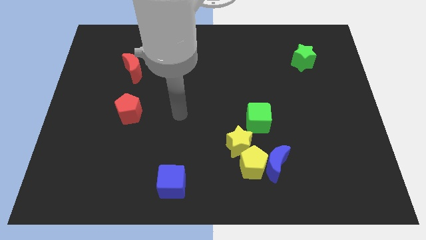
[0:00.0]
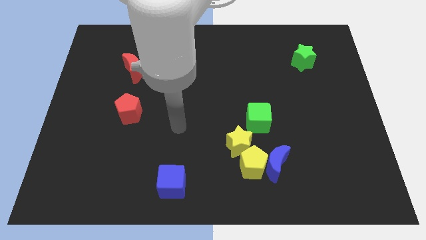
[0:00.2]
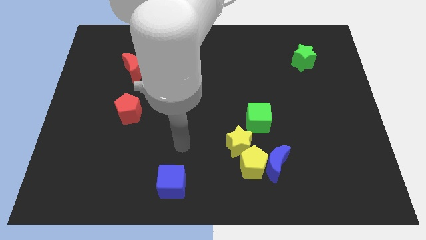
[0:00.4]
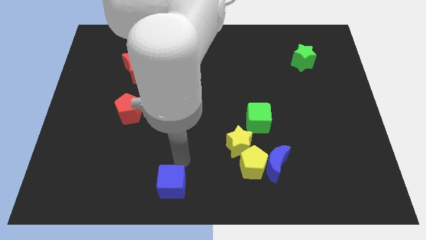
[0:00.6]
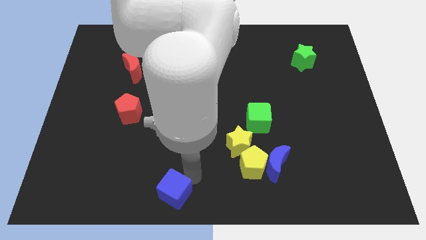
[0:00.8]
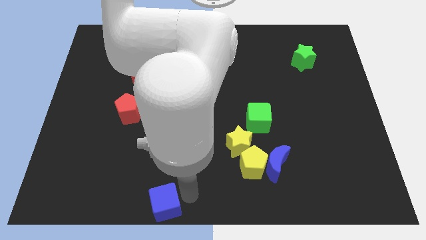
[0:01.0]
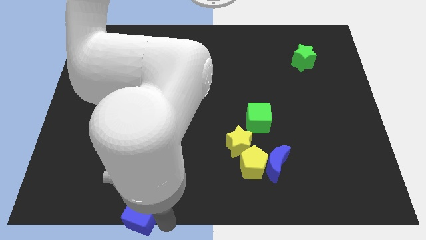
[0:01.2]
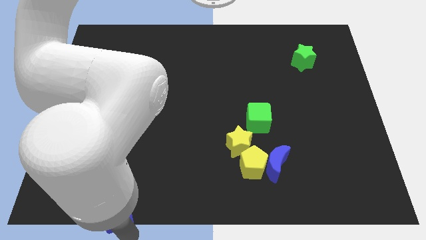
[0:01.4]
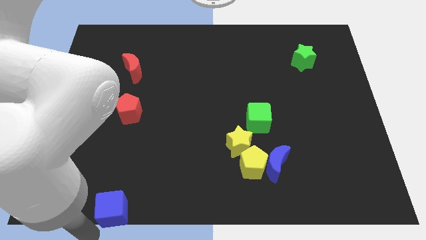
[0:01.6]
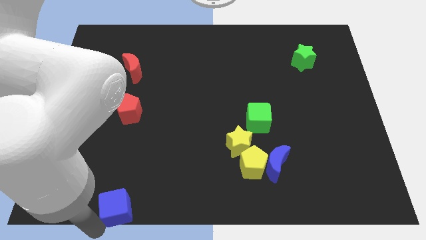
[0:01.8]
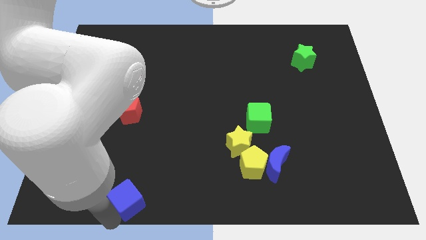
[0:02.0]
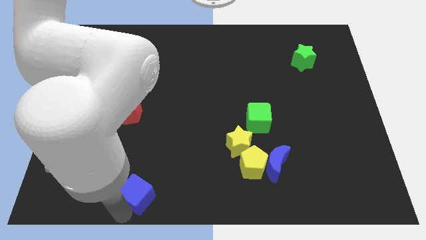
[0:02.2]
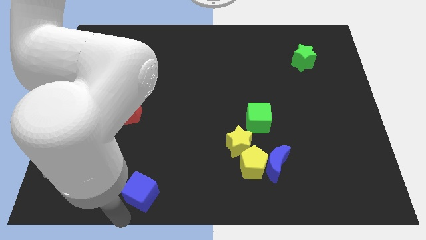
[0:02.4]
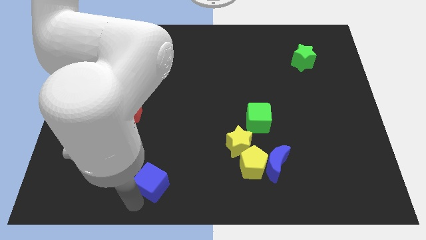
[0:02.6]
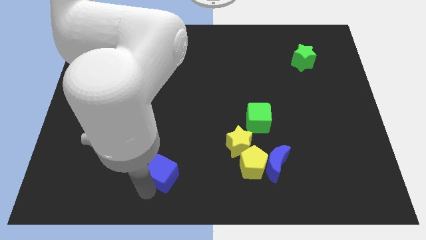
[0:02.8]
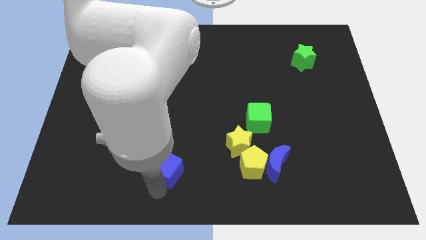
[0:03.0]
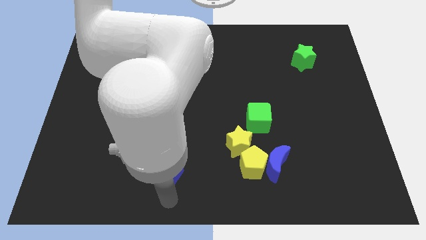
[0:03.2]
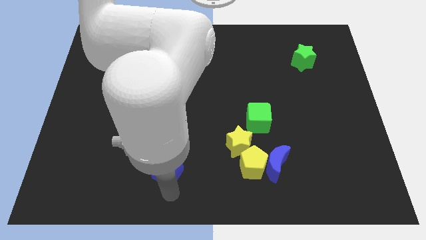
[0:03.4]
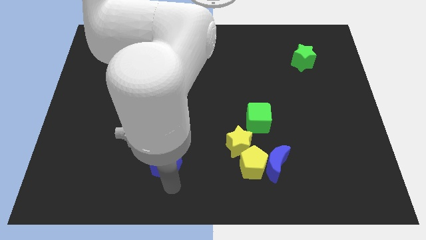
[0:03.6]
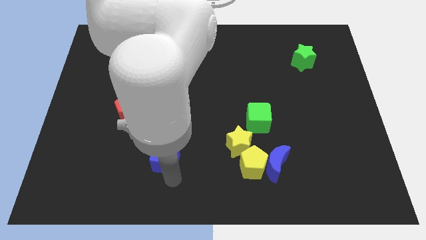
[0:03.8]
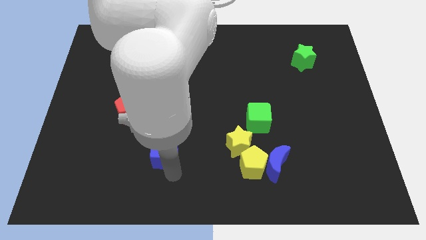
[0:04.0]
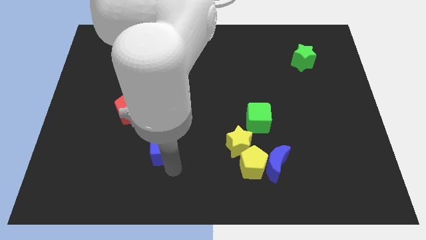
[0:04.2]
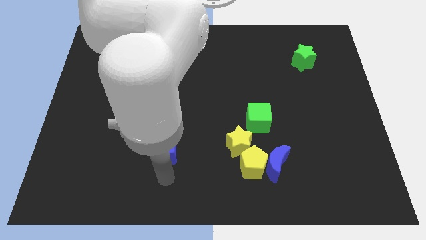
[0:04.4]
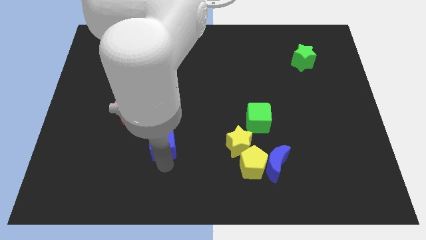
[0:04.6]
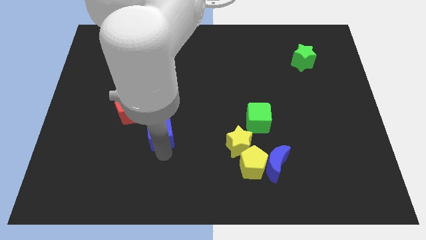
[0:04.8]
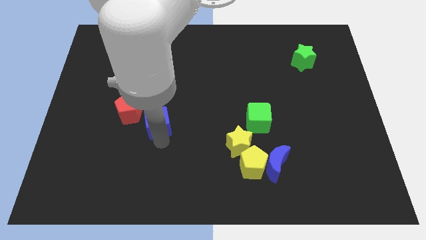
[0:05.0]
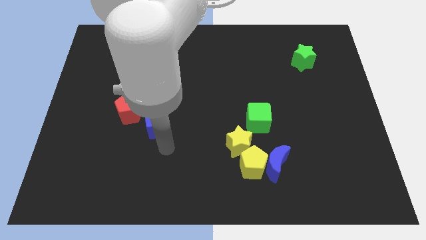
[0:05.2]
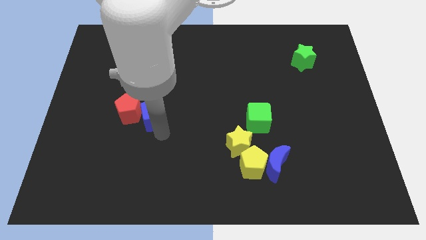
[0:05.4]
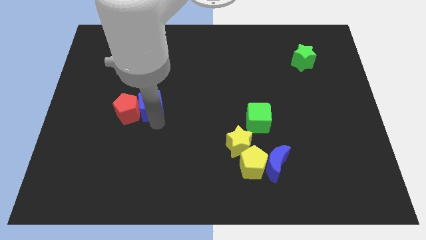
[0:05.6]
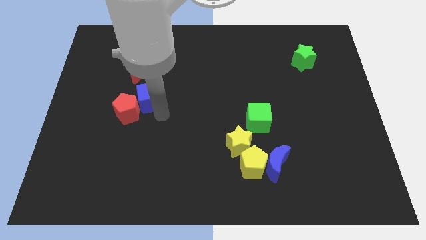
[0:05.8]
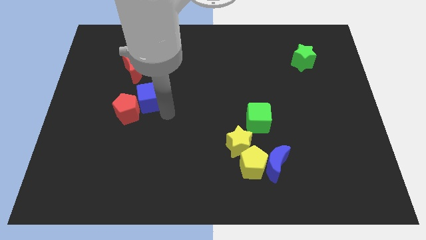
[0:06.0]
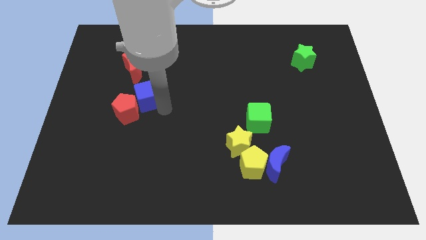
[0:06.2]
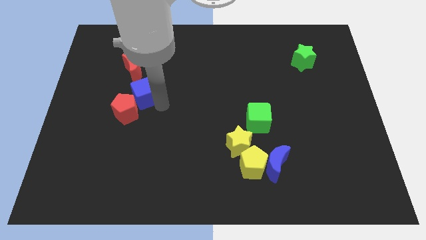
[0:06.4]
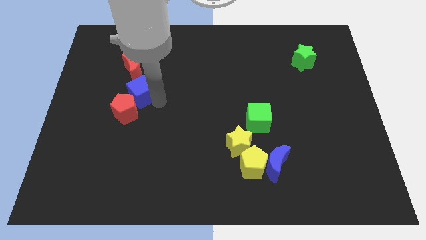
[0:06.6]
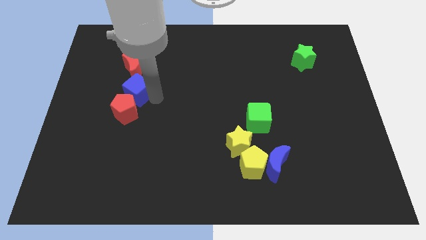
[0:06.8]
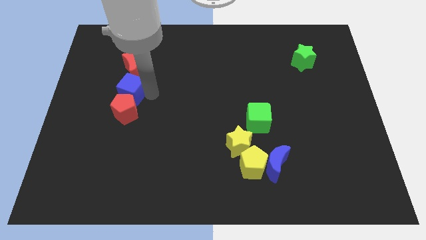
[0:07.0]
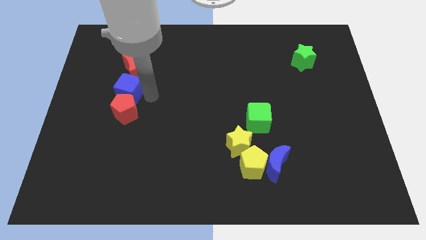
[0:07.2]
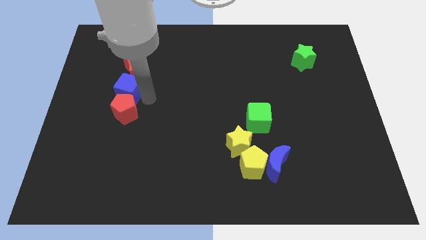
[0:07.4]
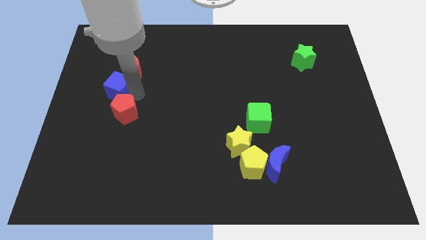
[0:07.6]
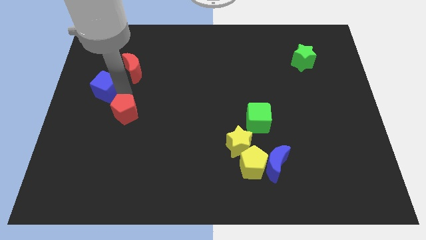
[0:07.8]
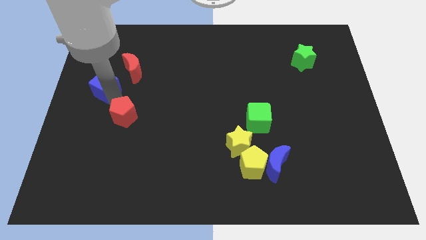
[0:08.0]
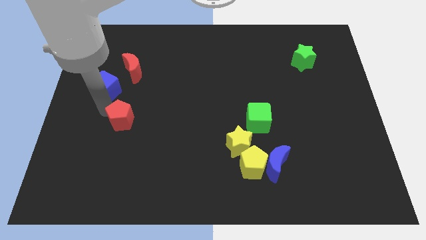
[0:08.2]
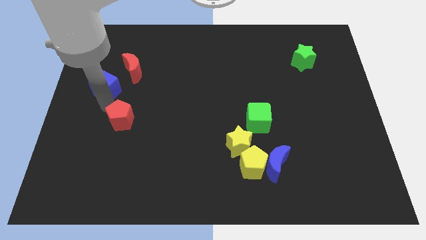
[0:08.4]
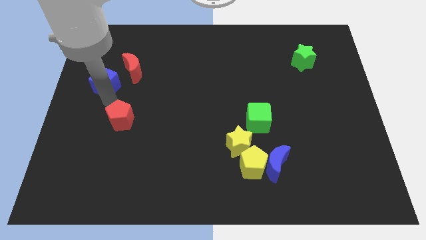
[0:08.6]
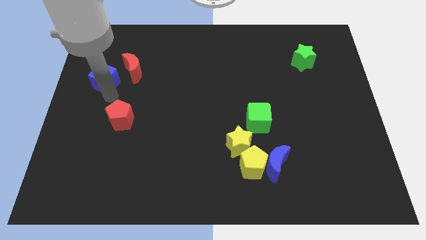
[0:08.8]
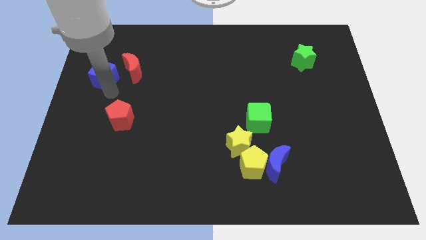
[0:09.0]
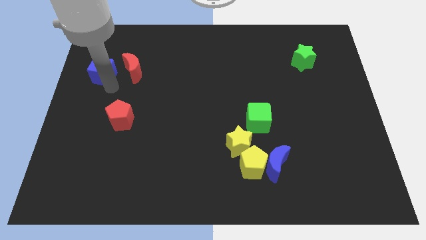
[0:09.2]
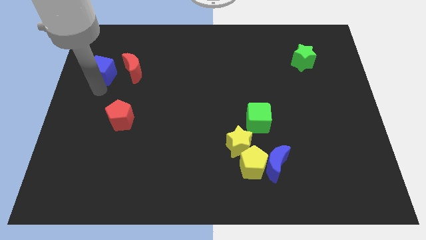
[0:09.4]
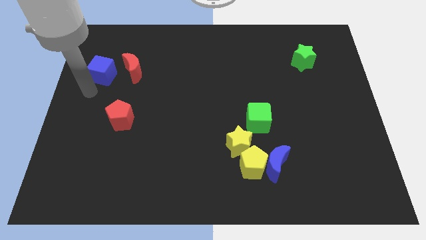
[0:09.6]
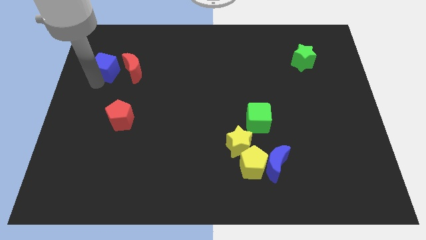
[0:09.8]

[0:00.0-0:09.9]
slide the blue cube to the top left side of the red moon

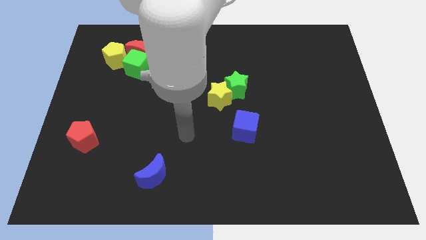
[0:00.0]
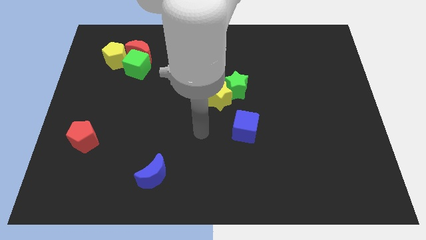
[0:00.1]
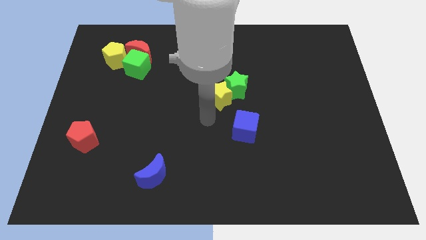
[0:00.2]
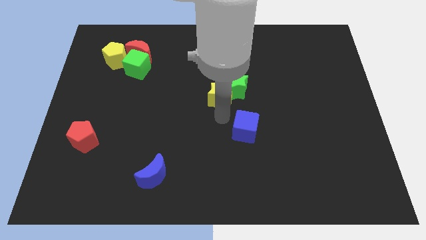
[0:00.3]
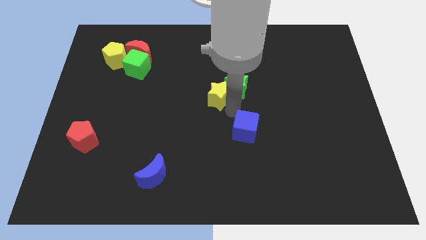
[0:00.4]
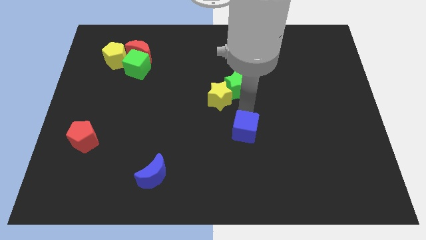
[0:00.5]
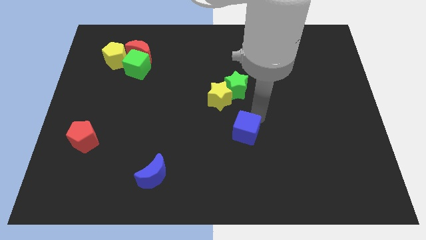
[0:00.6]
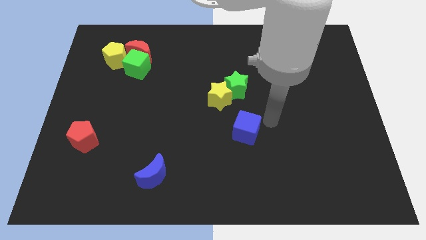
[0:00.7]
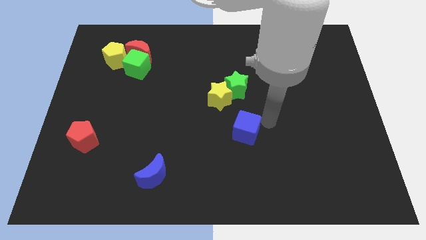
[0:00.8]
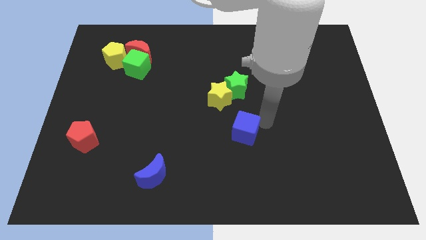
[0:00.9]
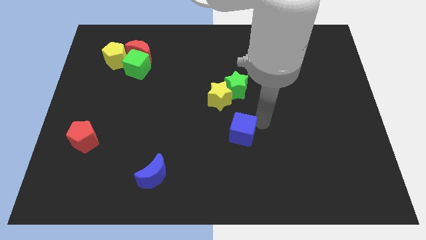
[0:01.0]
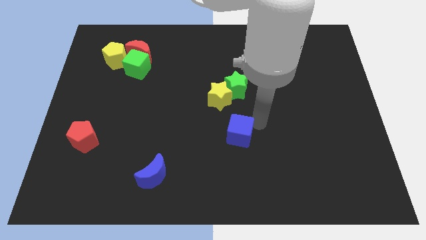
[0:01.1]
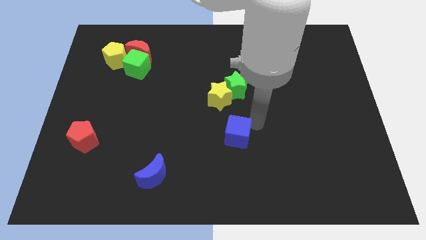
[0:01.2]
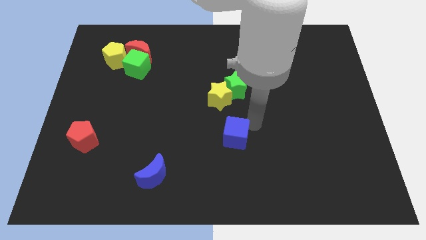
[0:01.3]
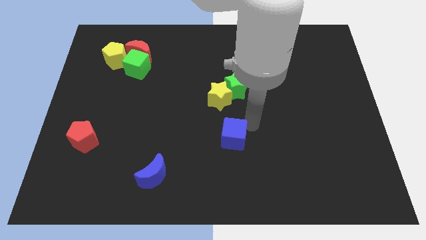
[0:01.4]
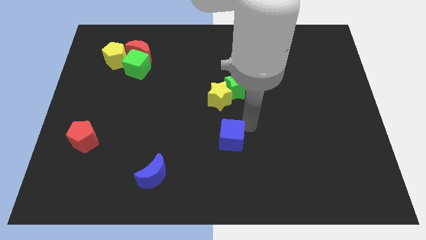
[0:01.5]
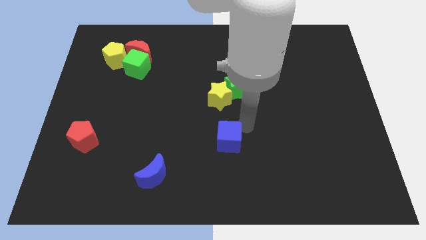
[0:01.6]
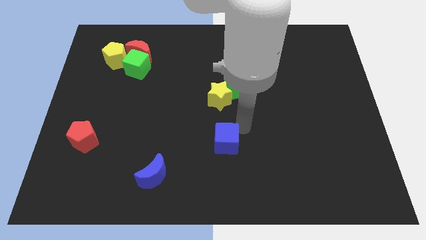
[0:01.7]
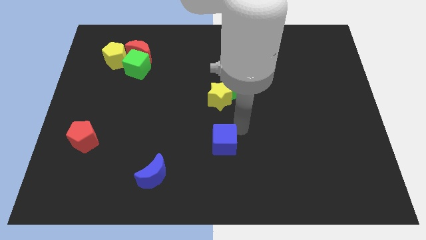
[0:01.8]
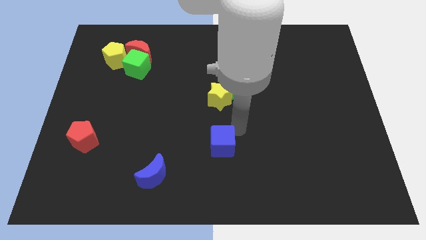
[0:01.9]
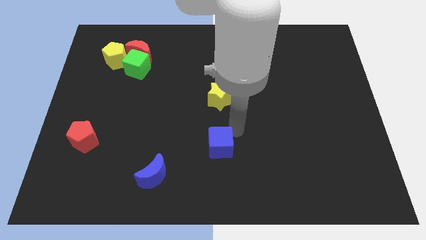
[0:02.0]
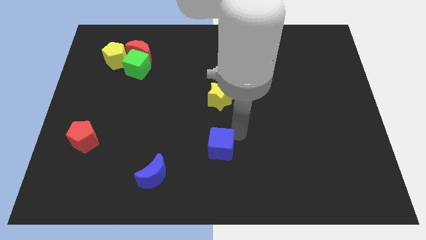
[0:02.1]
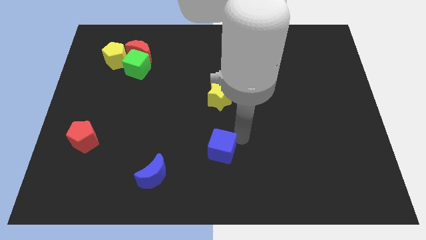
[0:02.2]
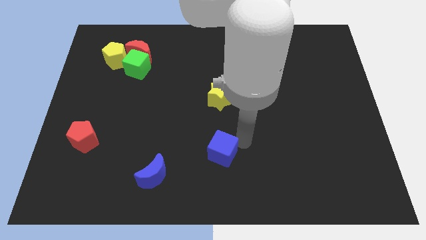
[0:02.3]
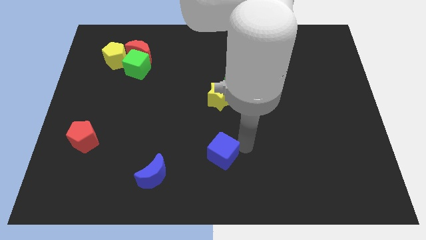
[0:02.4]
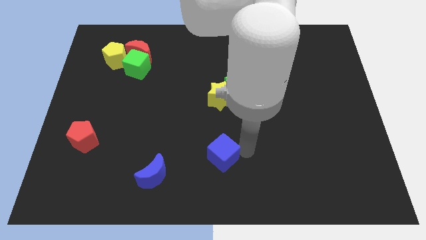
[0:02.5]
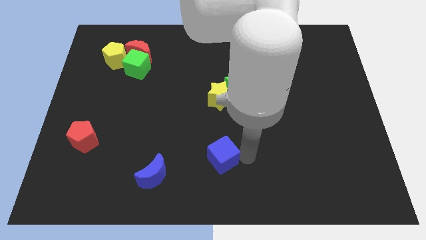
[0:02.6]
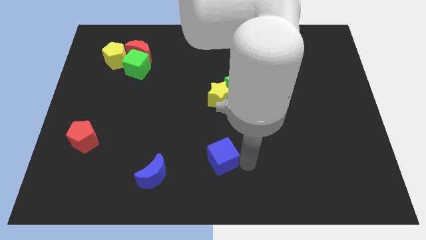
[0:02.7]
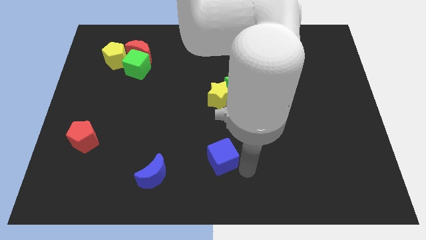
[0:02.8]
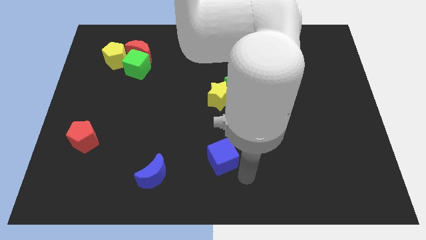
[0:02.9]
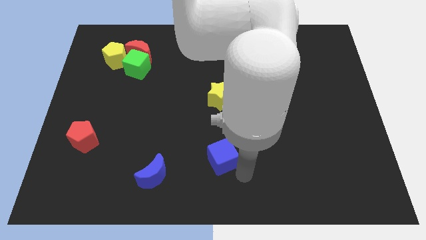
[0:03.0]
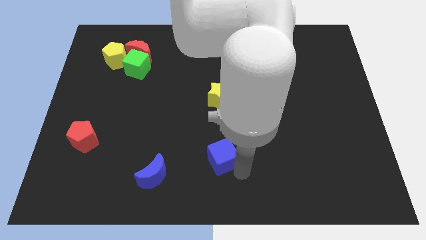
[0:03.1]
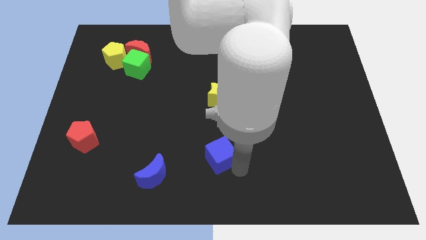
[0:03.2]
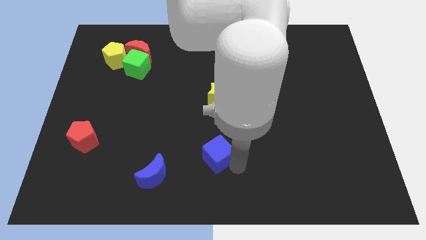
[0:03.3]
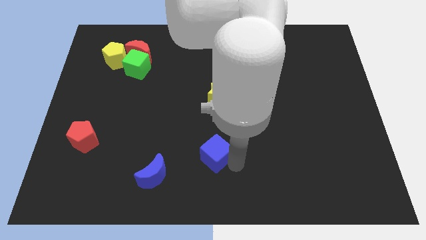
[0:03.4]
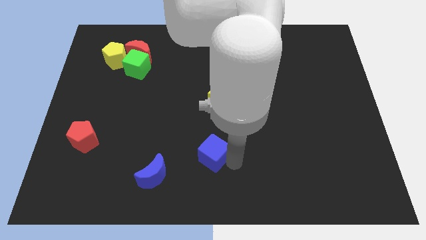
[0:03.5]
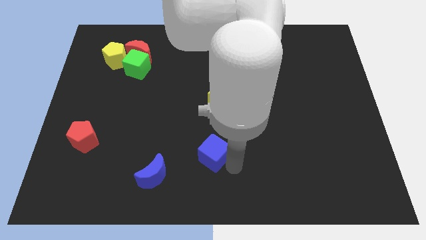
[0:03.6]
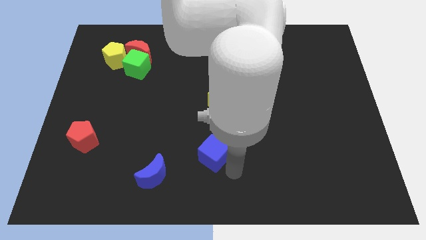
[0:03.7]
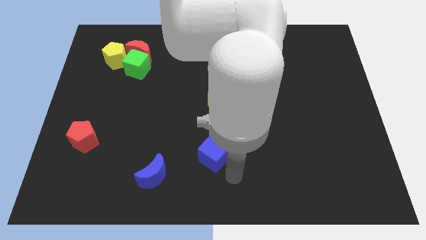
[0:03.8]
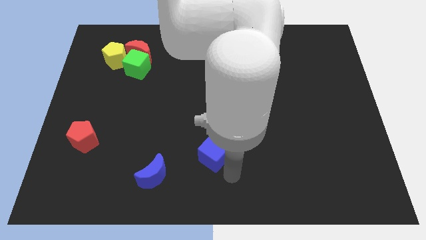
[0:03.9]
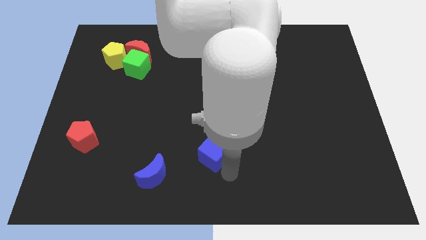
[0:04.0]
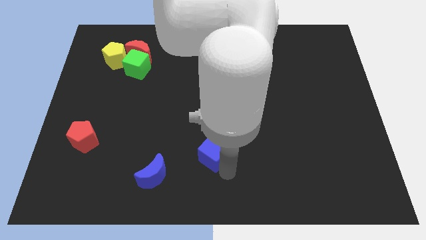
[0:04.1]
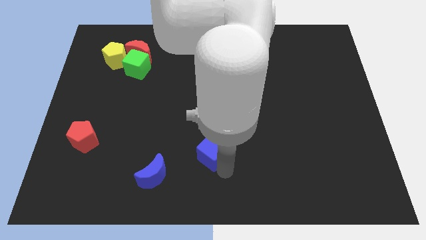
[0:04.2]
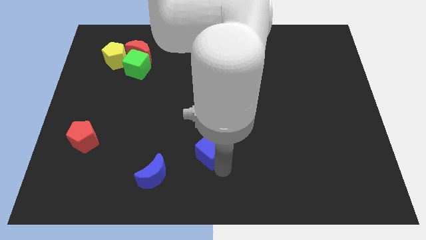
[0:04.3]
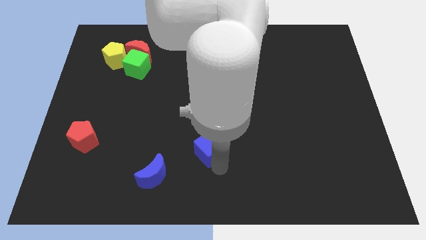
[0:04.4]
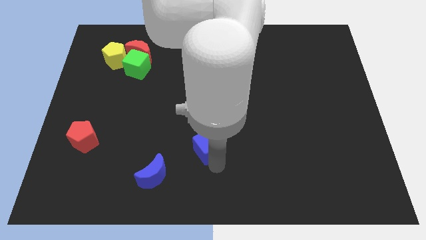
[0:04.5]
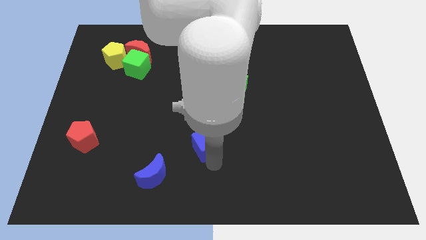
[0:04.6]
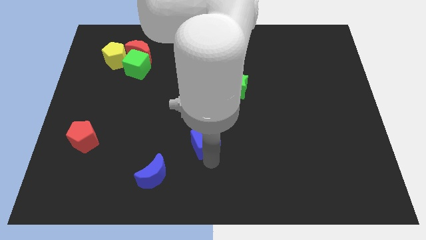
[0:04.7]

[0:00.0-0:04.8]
put the blue cube to the top right side of the blue moon
